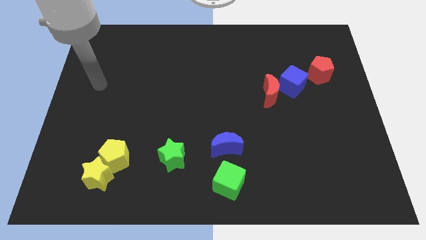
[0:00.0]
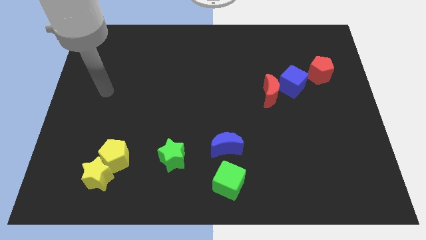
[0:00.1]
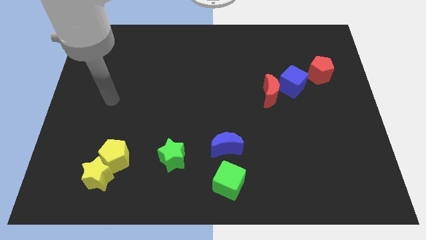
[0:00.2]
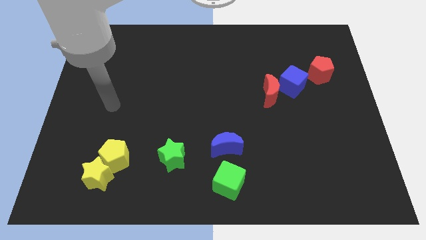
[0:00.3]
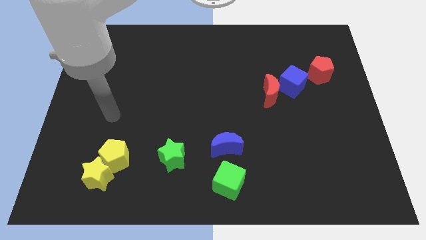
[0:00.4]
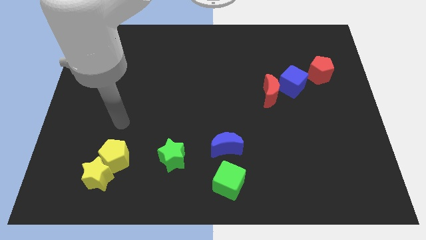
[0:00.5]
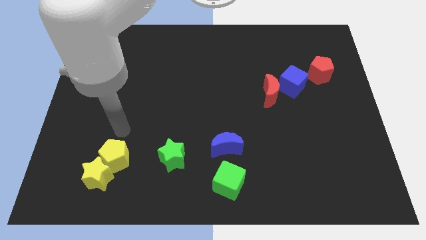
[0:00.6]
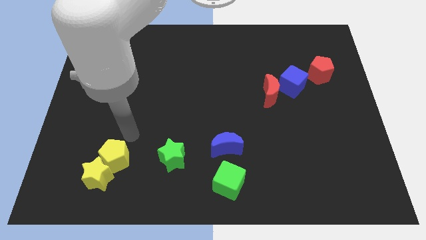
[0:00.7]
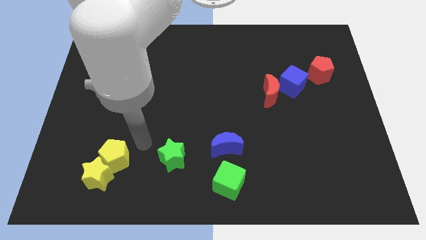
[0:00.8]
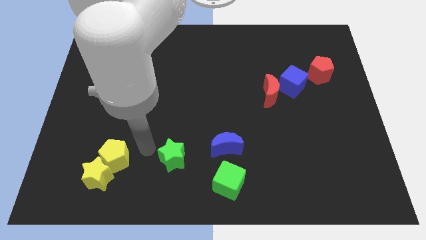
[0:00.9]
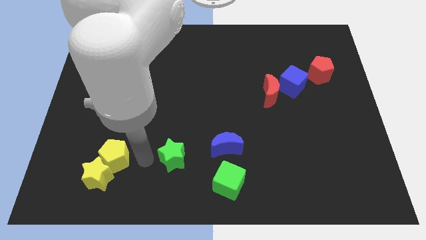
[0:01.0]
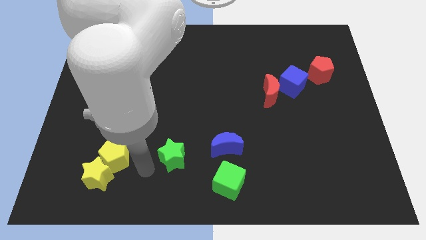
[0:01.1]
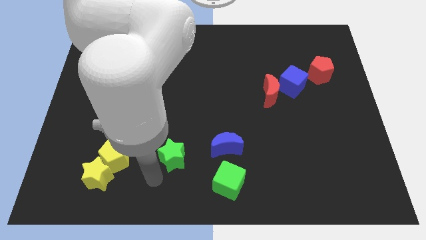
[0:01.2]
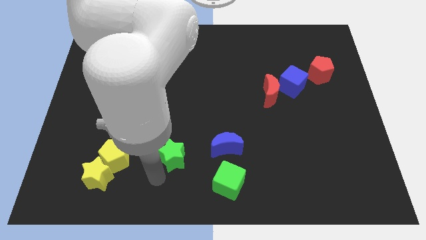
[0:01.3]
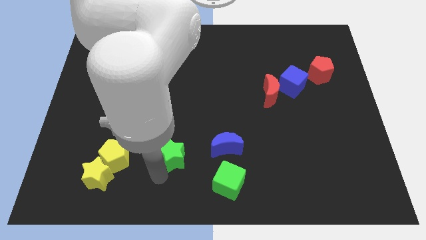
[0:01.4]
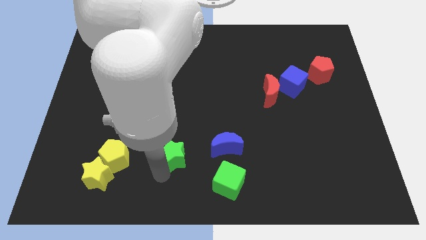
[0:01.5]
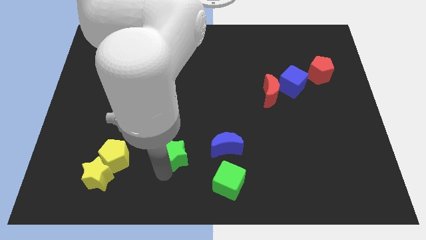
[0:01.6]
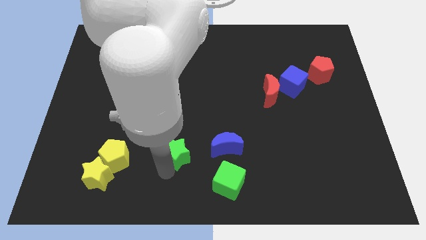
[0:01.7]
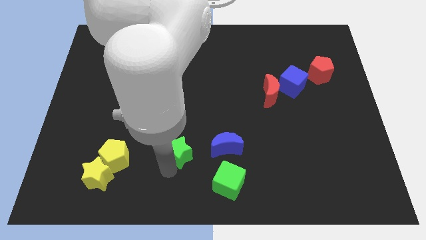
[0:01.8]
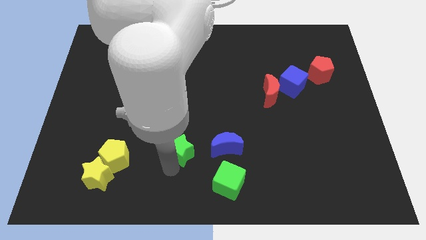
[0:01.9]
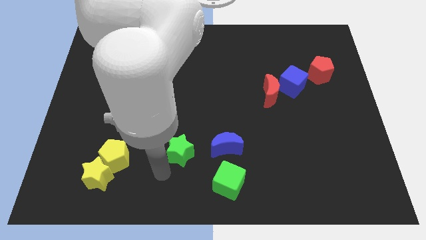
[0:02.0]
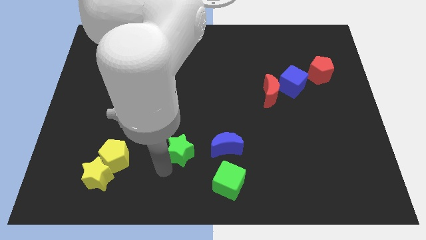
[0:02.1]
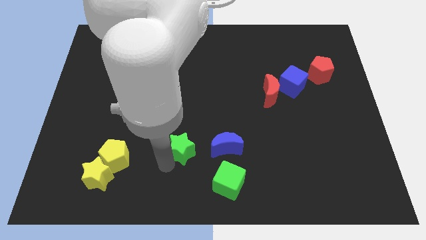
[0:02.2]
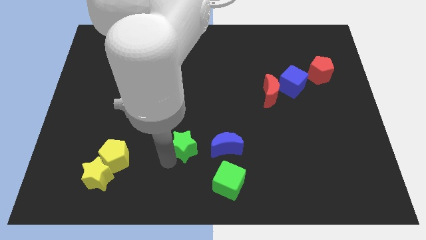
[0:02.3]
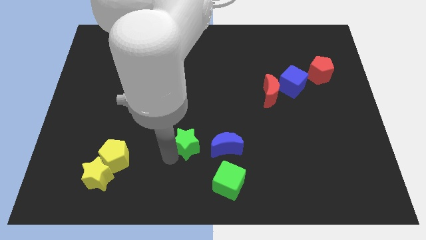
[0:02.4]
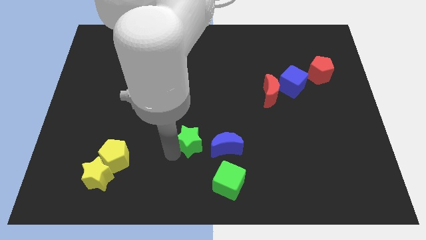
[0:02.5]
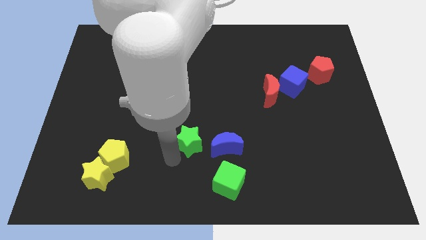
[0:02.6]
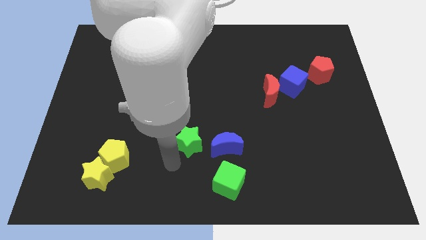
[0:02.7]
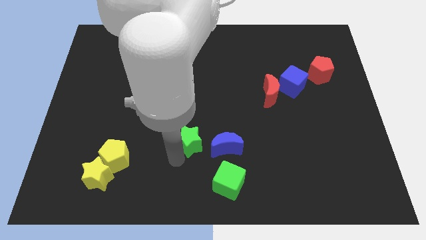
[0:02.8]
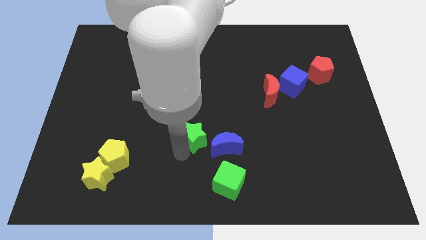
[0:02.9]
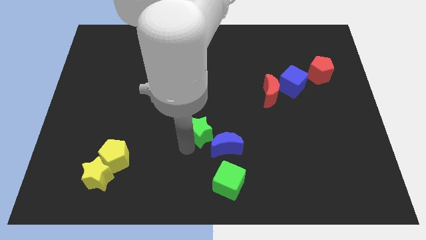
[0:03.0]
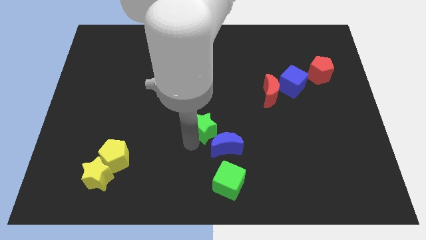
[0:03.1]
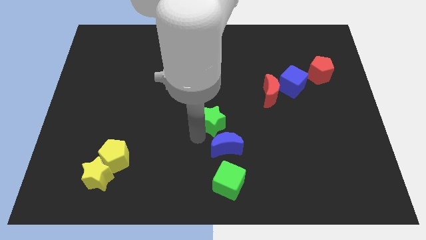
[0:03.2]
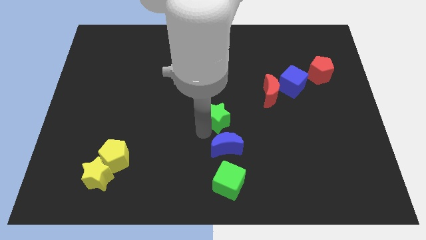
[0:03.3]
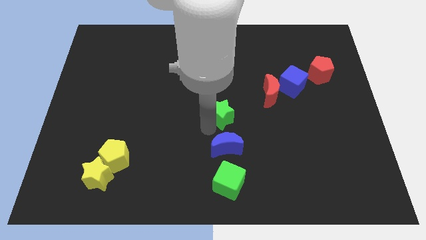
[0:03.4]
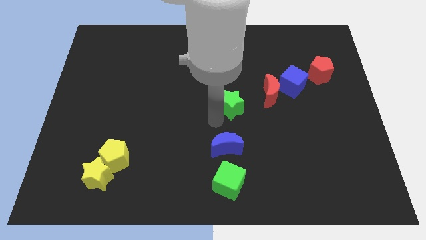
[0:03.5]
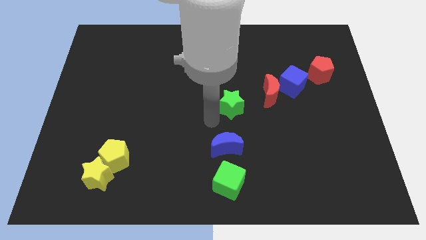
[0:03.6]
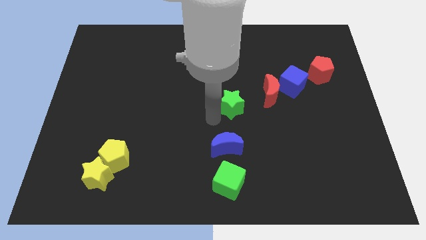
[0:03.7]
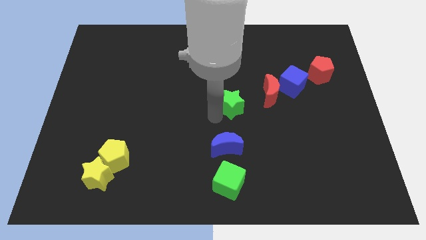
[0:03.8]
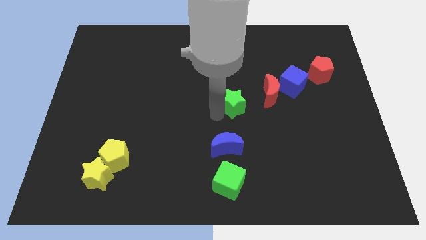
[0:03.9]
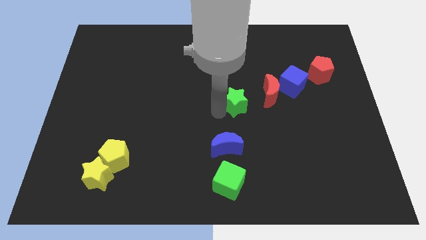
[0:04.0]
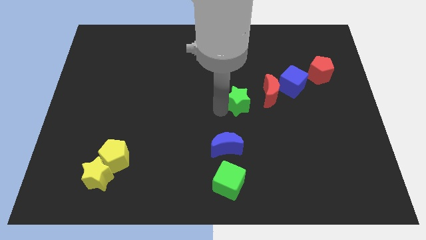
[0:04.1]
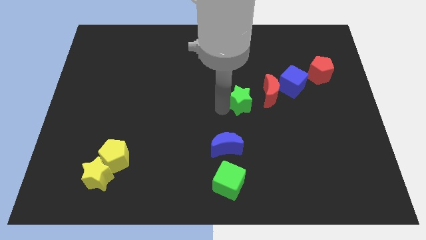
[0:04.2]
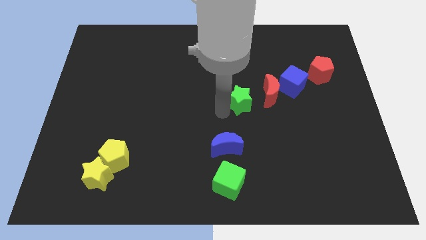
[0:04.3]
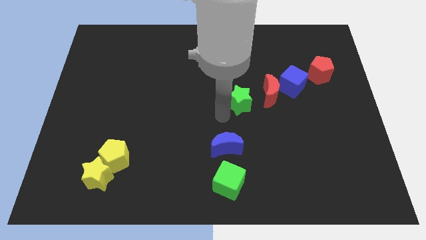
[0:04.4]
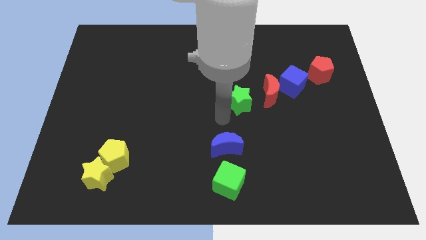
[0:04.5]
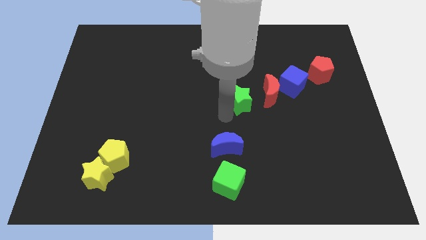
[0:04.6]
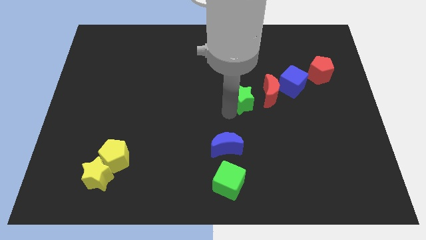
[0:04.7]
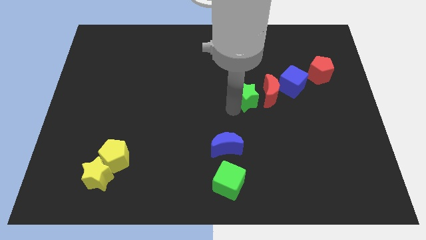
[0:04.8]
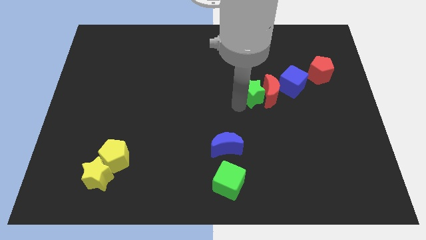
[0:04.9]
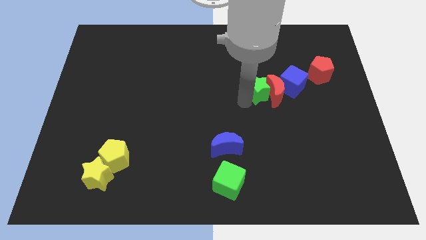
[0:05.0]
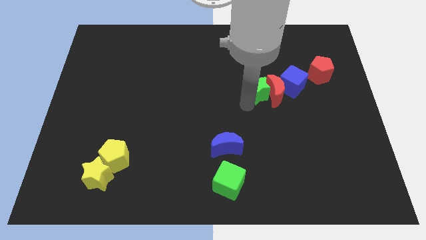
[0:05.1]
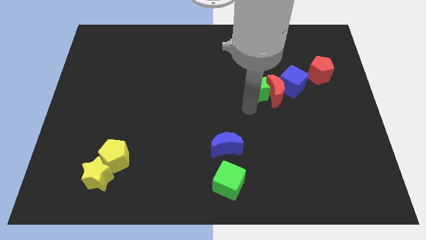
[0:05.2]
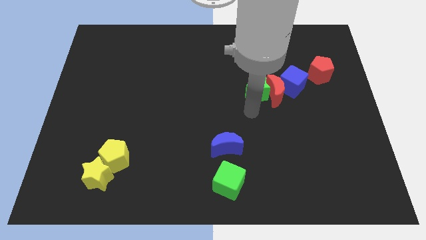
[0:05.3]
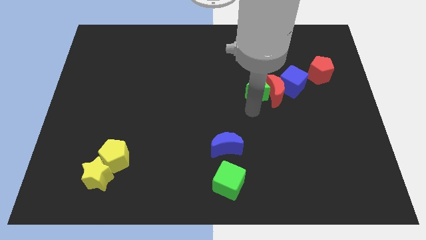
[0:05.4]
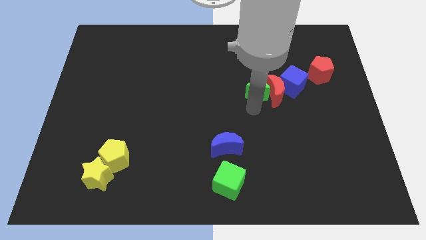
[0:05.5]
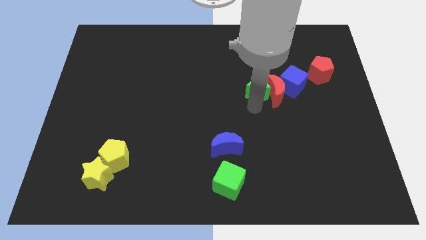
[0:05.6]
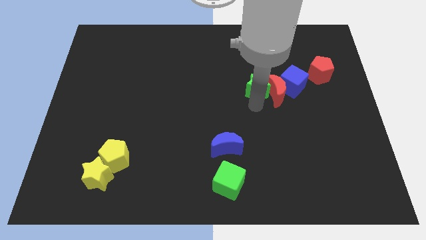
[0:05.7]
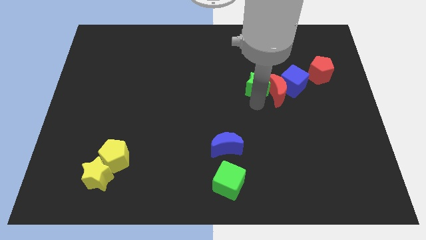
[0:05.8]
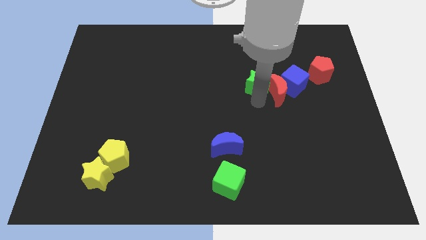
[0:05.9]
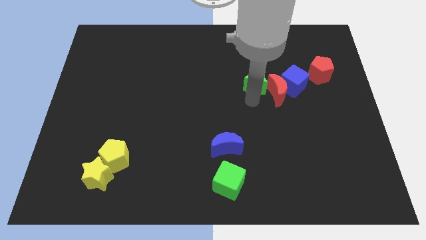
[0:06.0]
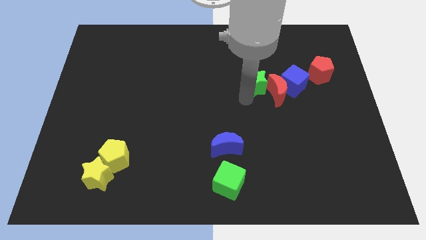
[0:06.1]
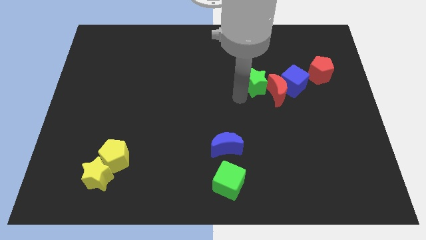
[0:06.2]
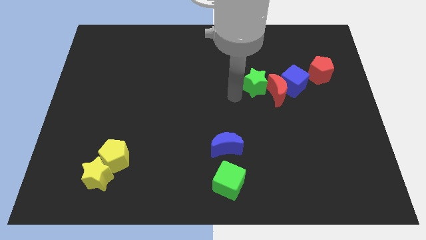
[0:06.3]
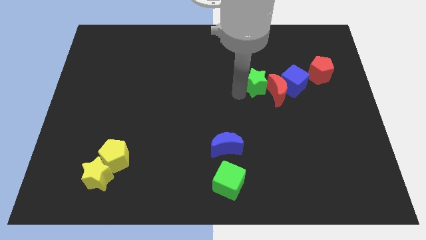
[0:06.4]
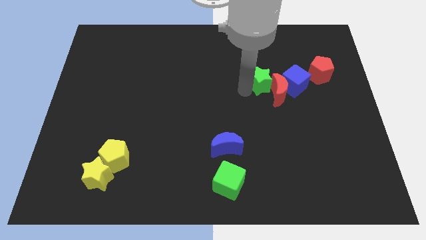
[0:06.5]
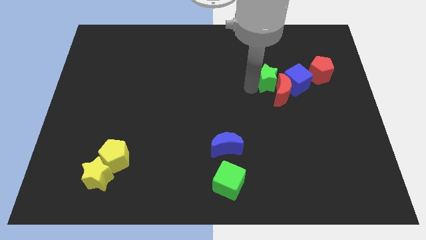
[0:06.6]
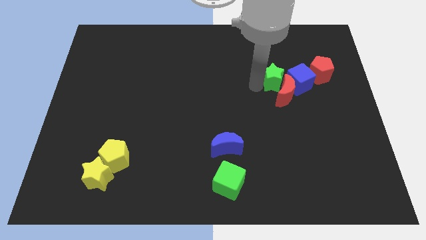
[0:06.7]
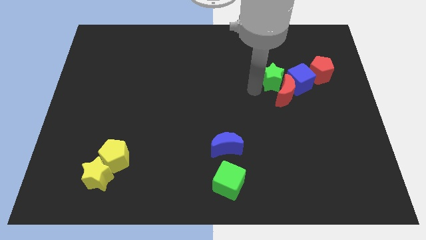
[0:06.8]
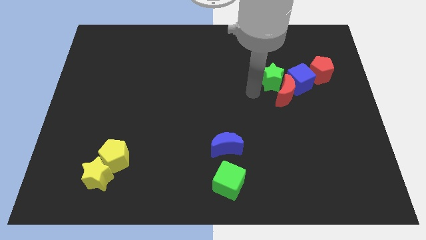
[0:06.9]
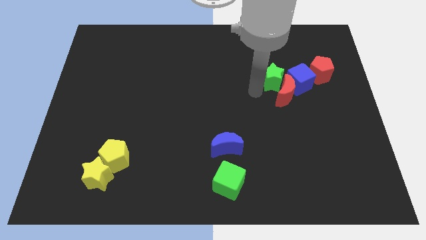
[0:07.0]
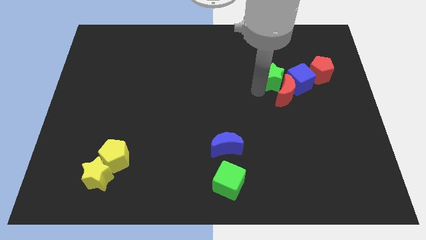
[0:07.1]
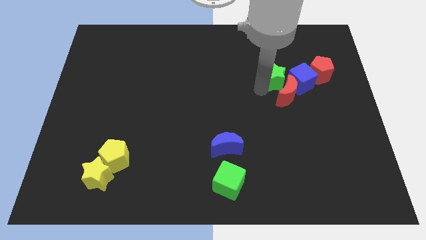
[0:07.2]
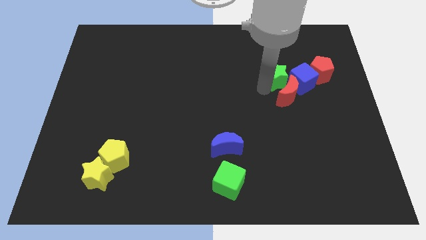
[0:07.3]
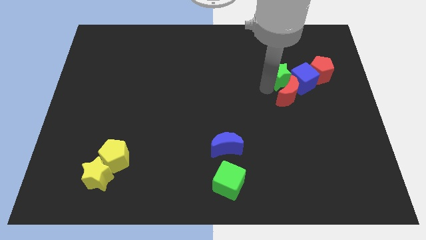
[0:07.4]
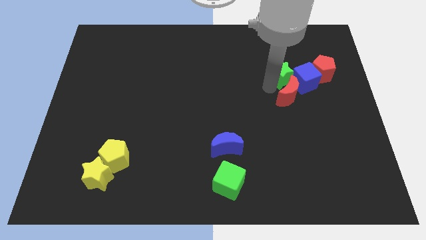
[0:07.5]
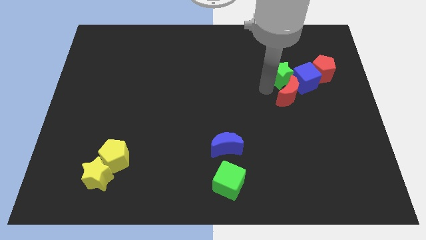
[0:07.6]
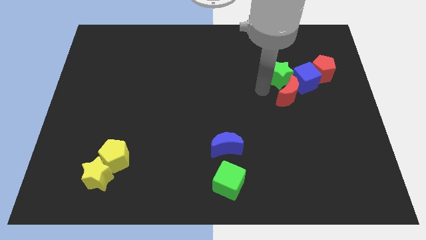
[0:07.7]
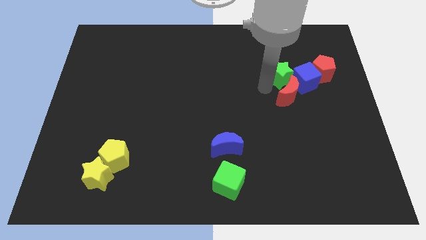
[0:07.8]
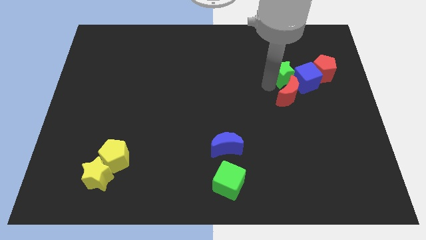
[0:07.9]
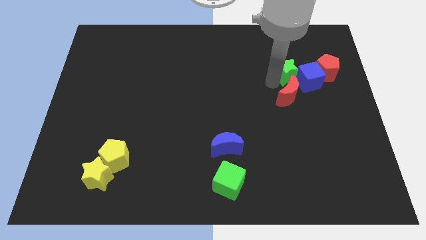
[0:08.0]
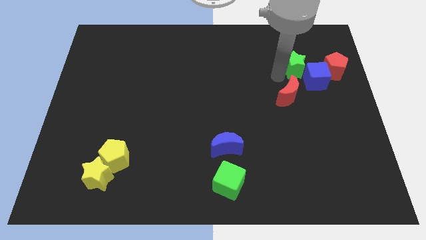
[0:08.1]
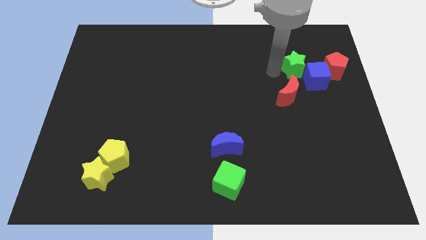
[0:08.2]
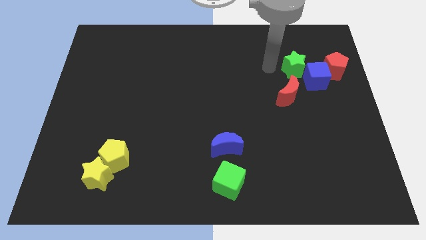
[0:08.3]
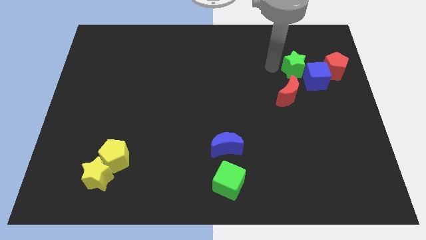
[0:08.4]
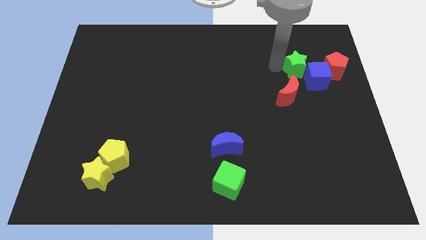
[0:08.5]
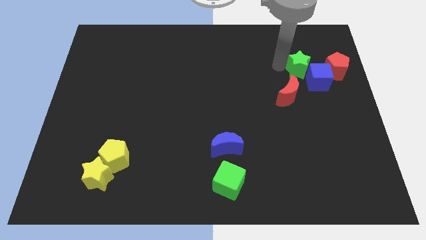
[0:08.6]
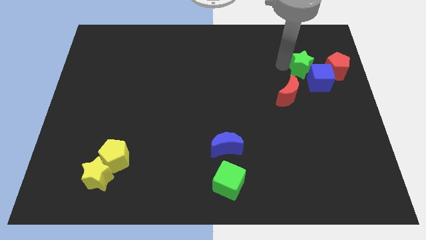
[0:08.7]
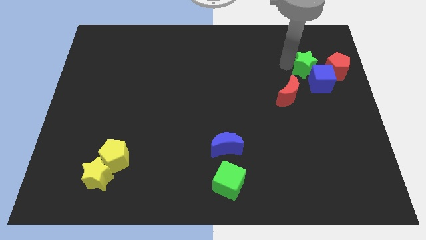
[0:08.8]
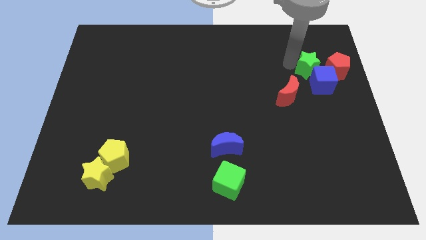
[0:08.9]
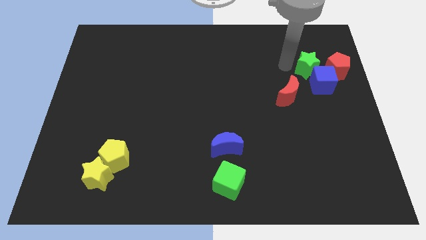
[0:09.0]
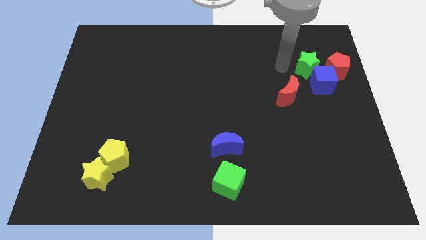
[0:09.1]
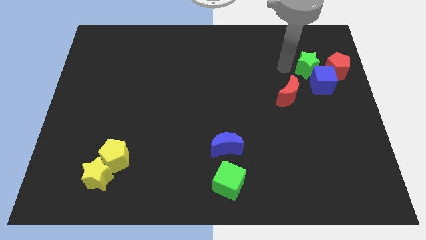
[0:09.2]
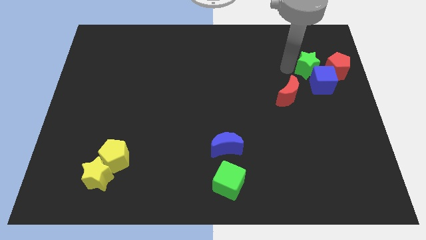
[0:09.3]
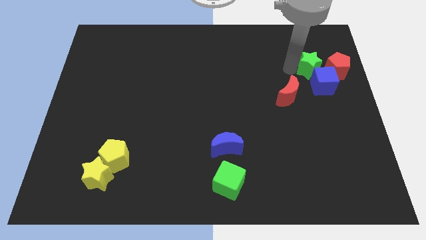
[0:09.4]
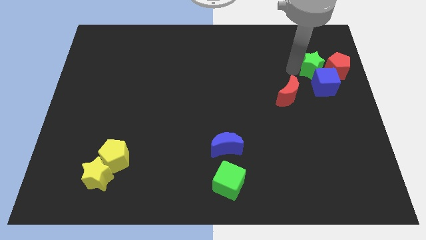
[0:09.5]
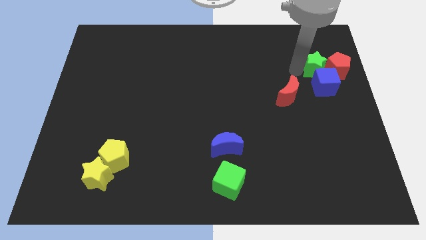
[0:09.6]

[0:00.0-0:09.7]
move the green star next to the red pentagon
